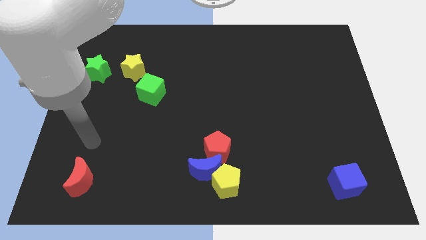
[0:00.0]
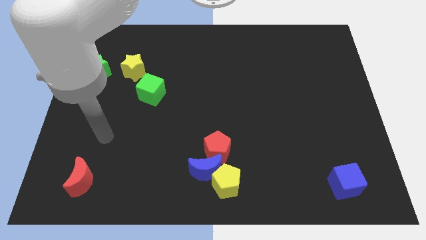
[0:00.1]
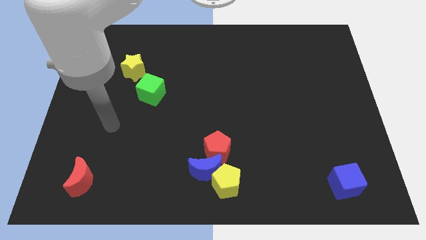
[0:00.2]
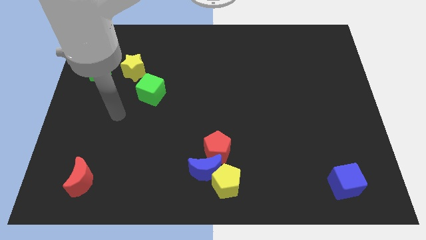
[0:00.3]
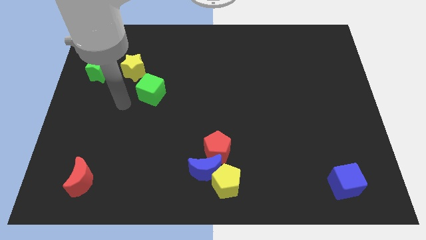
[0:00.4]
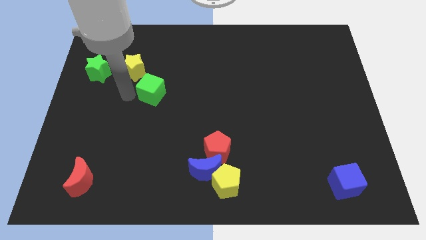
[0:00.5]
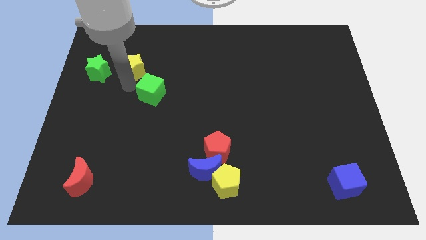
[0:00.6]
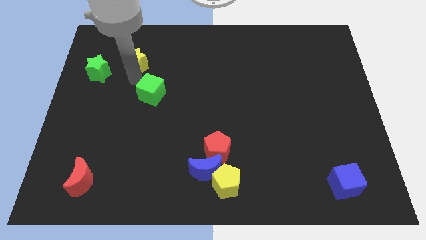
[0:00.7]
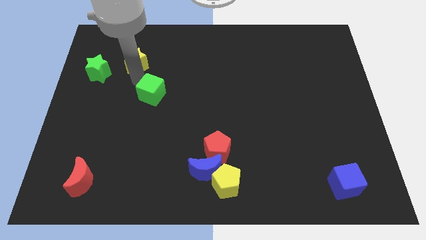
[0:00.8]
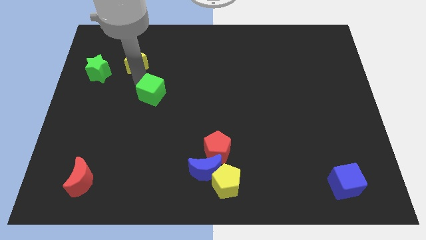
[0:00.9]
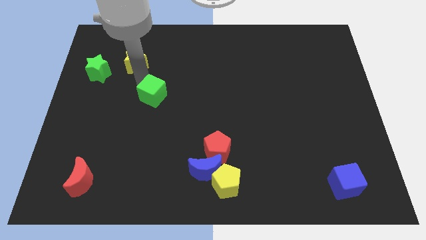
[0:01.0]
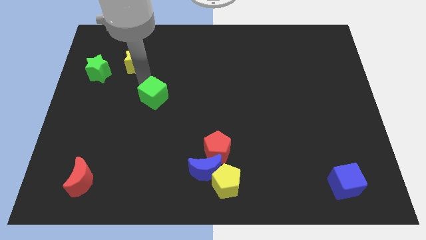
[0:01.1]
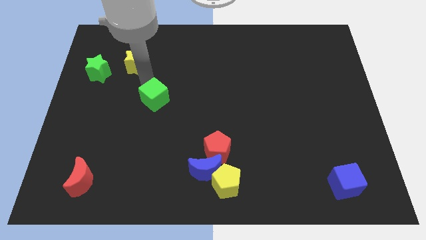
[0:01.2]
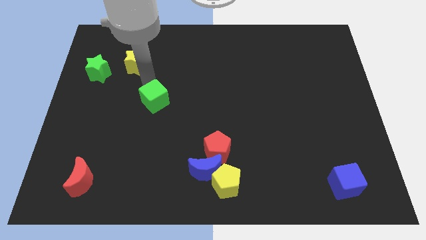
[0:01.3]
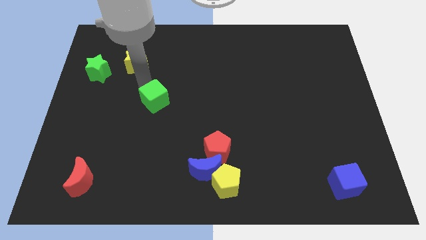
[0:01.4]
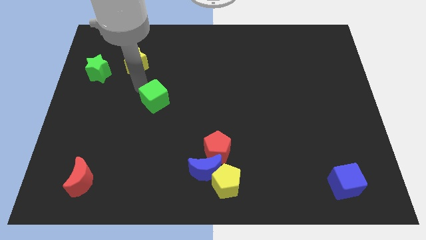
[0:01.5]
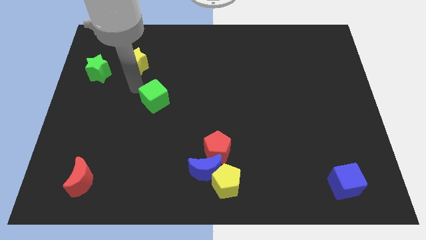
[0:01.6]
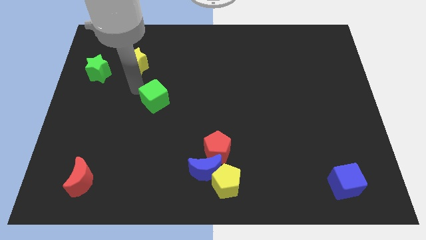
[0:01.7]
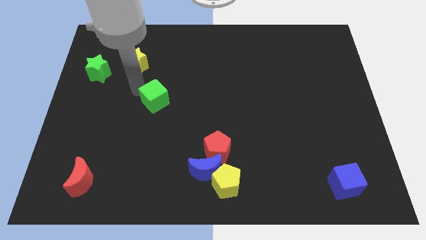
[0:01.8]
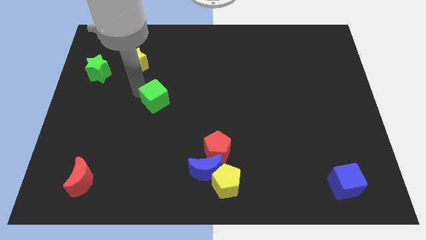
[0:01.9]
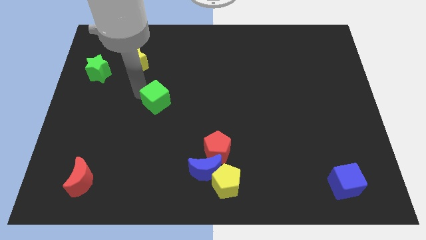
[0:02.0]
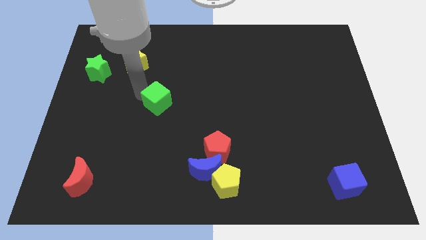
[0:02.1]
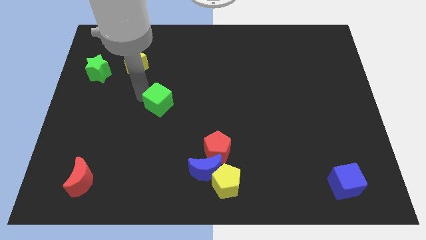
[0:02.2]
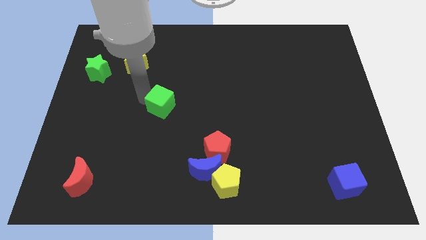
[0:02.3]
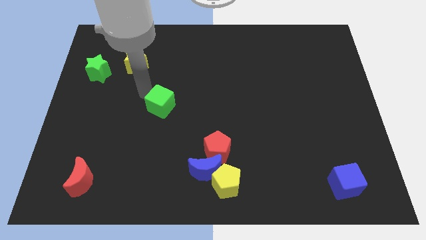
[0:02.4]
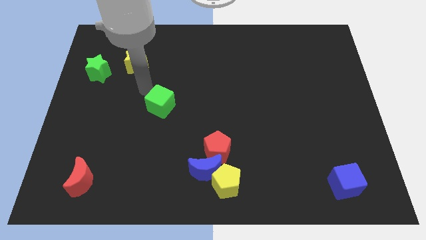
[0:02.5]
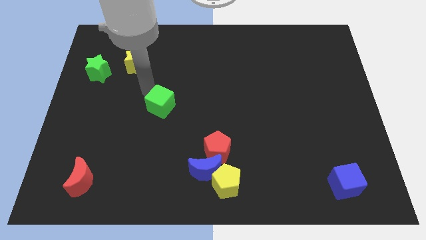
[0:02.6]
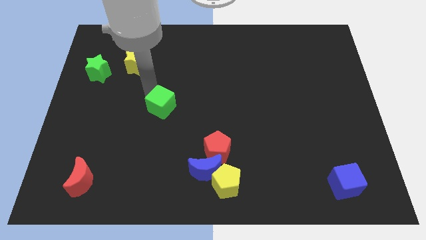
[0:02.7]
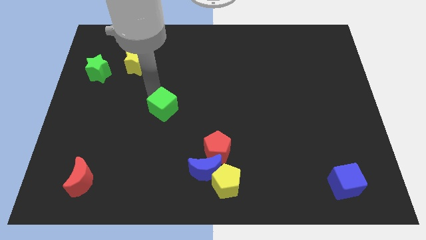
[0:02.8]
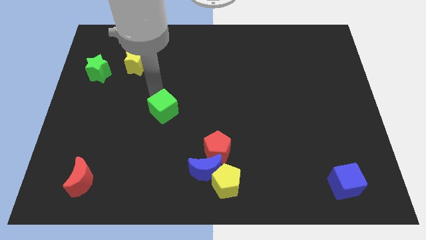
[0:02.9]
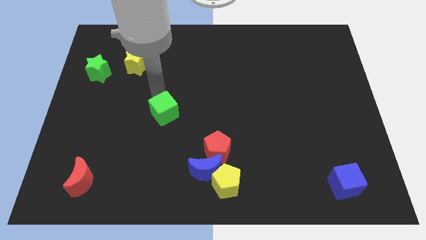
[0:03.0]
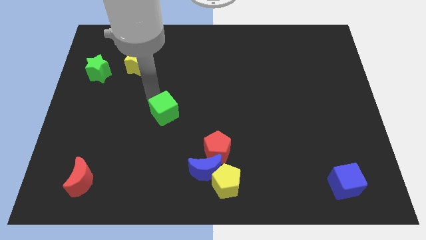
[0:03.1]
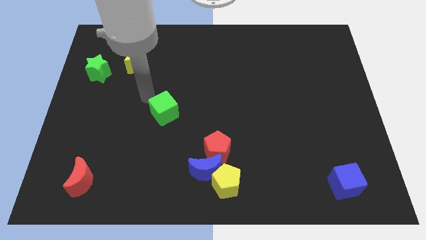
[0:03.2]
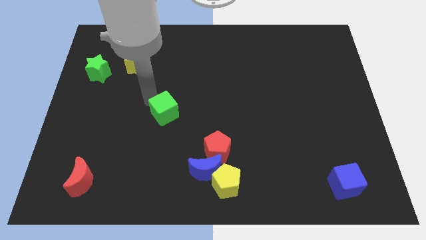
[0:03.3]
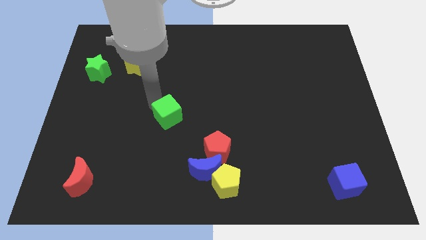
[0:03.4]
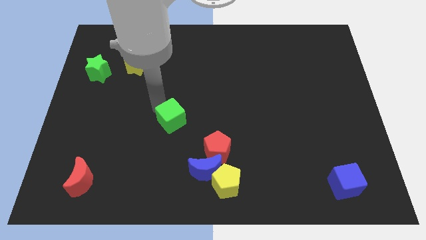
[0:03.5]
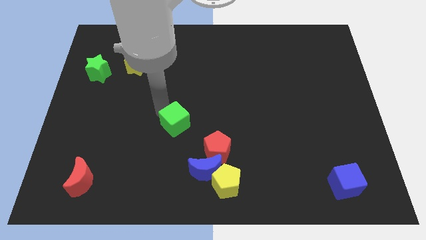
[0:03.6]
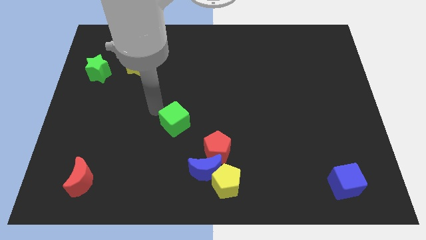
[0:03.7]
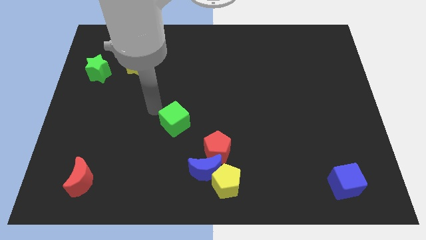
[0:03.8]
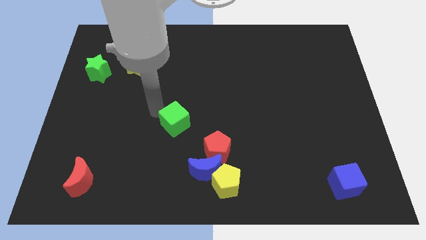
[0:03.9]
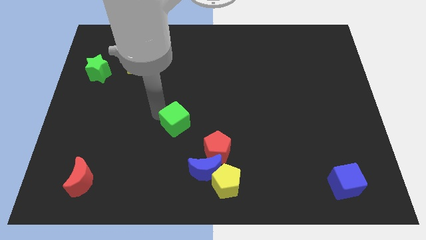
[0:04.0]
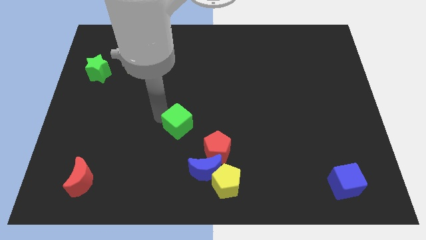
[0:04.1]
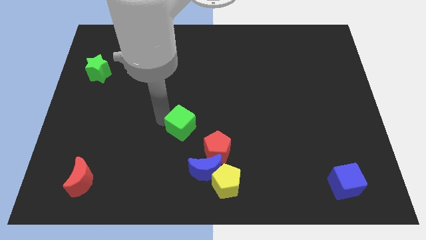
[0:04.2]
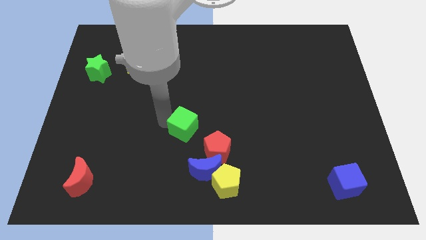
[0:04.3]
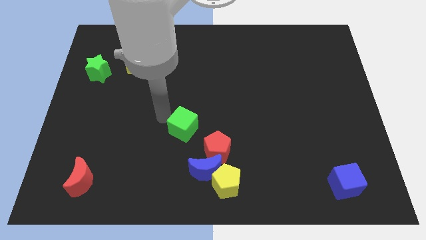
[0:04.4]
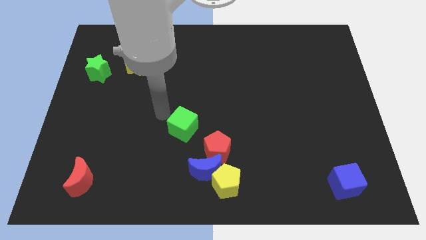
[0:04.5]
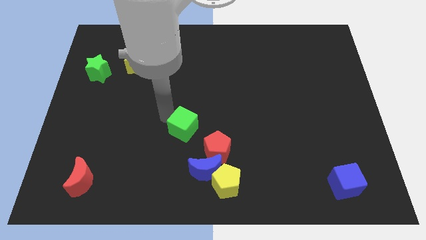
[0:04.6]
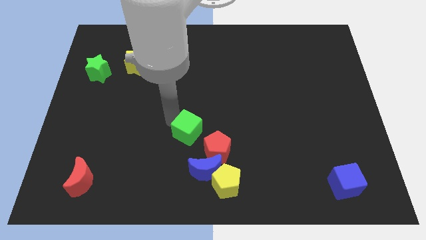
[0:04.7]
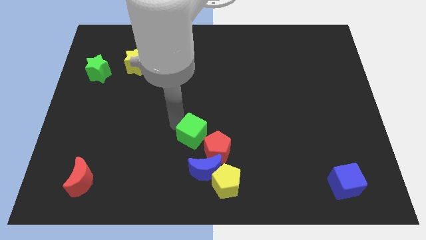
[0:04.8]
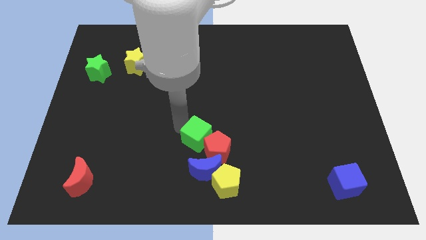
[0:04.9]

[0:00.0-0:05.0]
slide the green cube close to the red pentagon

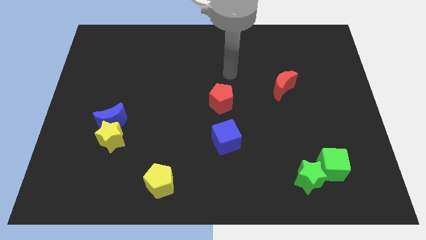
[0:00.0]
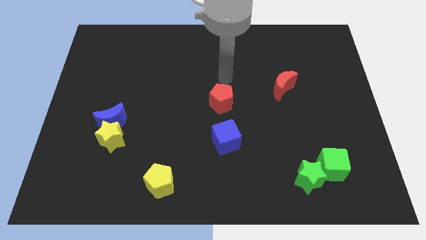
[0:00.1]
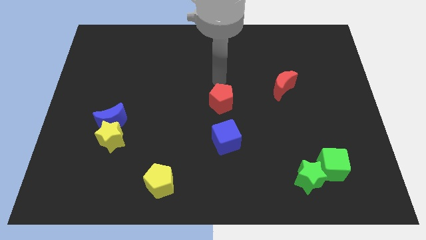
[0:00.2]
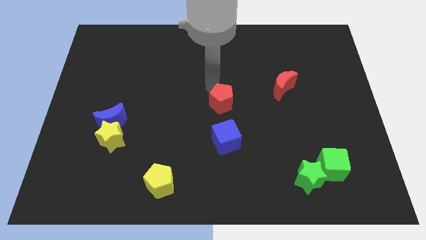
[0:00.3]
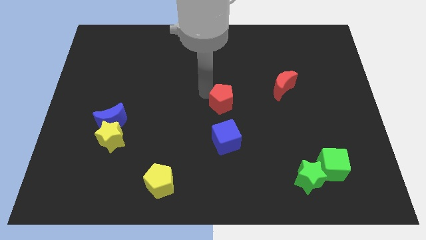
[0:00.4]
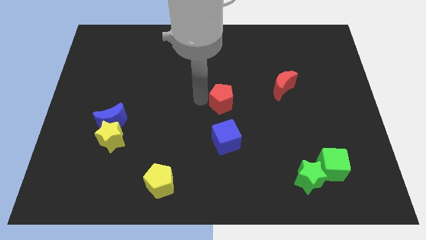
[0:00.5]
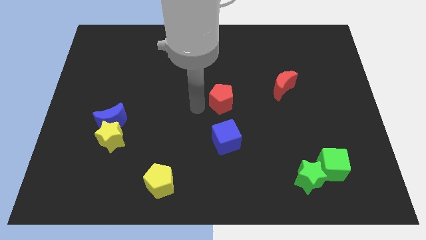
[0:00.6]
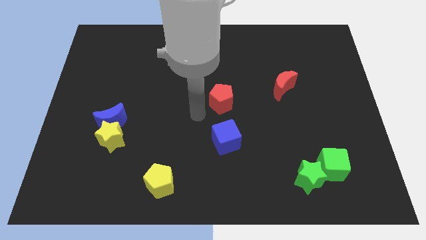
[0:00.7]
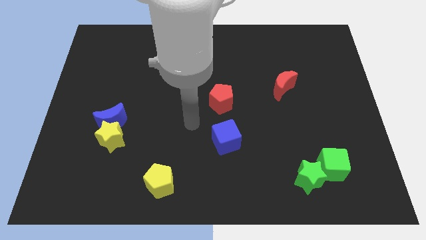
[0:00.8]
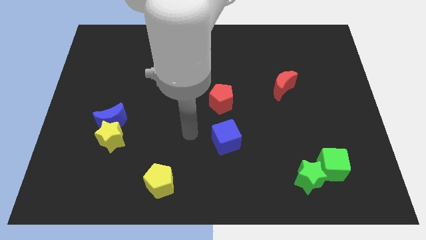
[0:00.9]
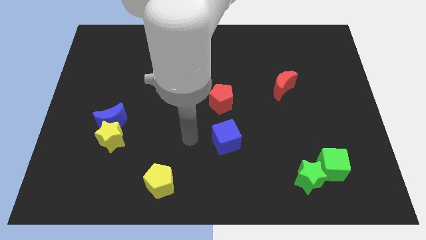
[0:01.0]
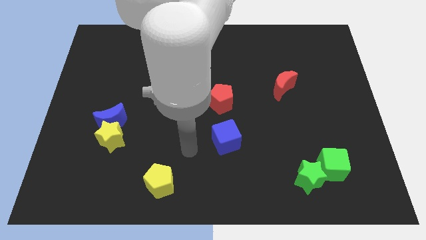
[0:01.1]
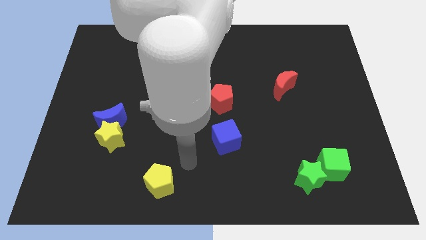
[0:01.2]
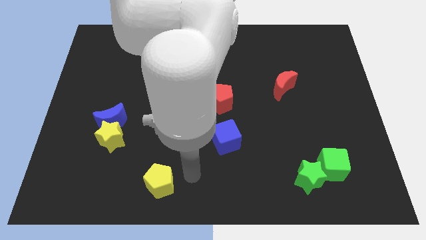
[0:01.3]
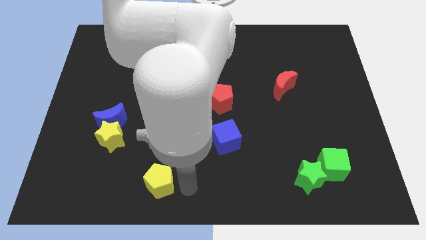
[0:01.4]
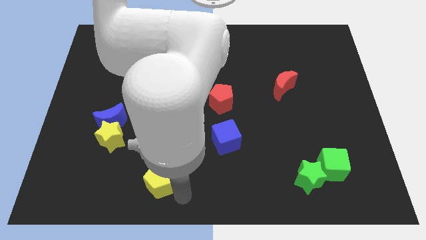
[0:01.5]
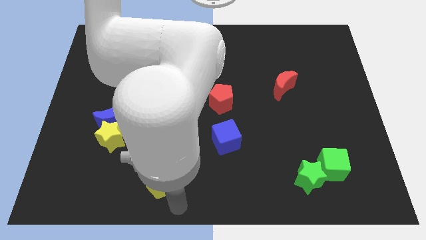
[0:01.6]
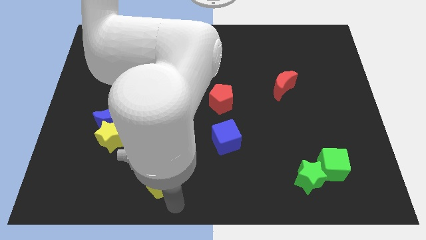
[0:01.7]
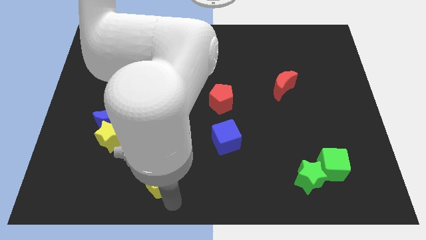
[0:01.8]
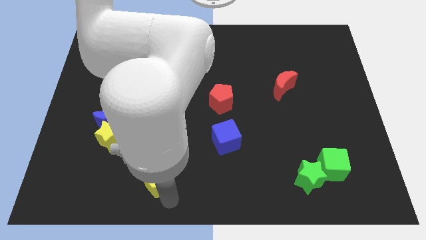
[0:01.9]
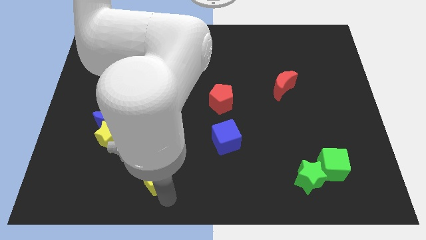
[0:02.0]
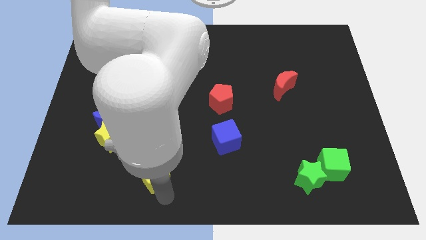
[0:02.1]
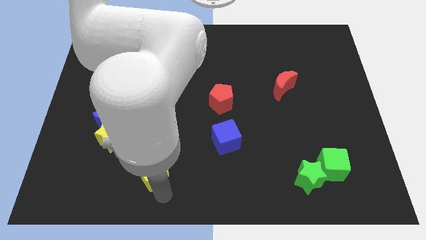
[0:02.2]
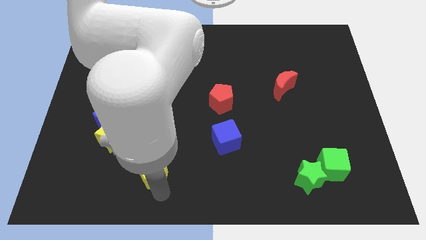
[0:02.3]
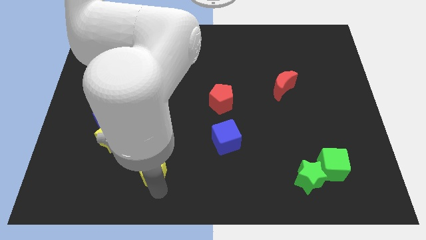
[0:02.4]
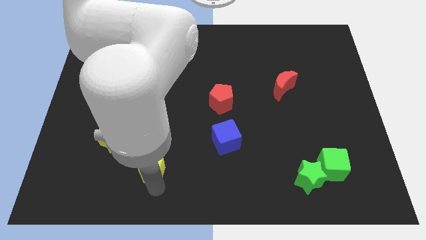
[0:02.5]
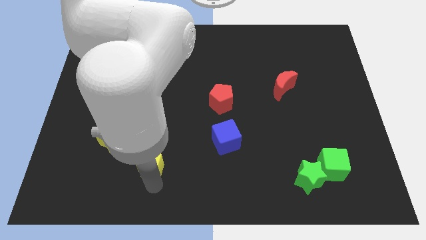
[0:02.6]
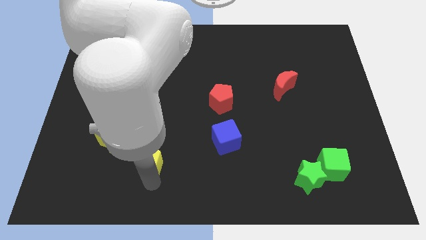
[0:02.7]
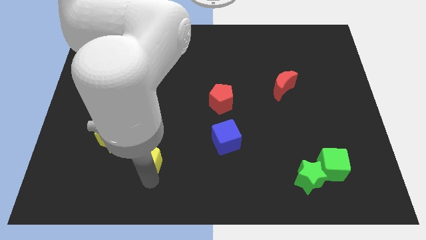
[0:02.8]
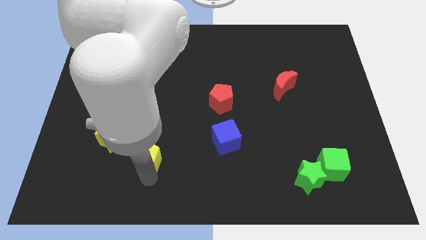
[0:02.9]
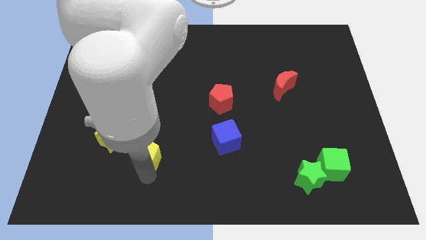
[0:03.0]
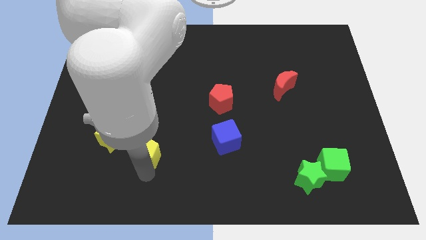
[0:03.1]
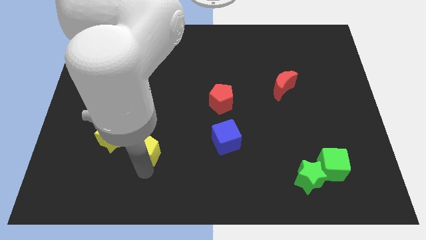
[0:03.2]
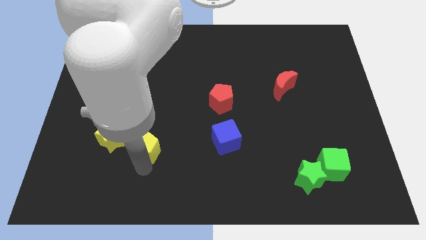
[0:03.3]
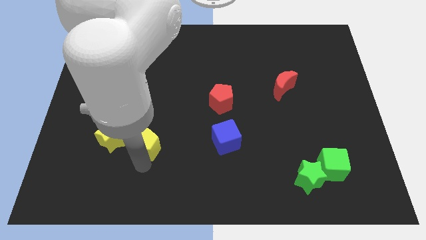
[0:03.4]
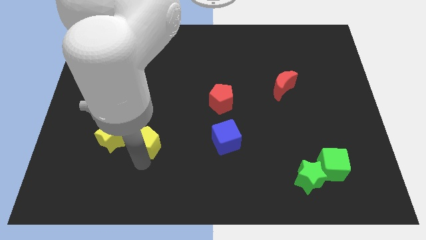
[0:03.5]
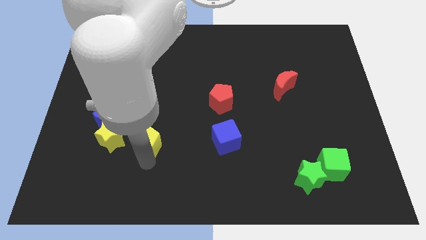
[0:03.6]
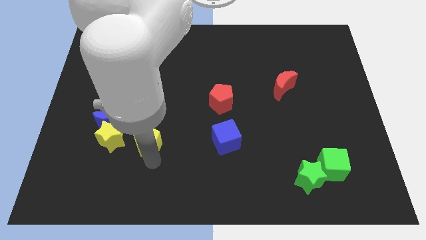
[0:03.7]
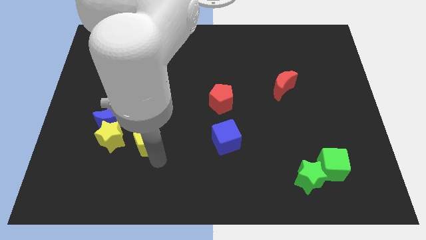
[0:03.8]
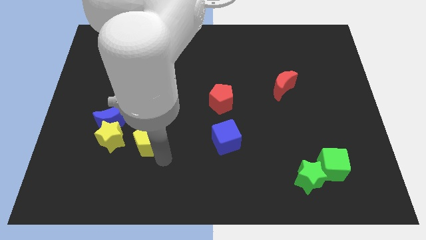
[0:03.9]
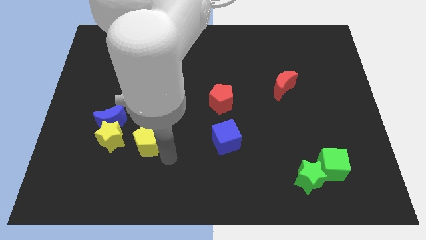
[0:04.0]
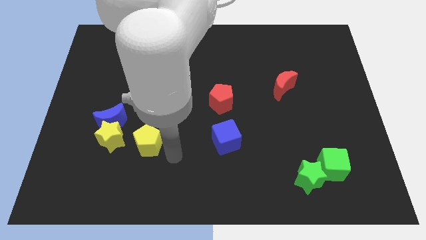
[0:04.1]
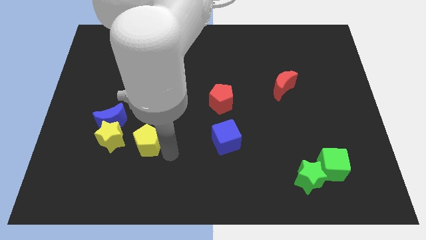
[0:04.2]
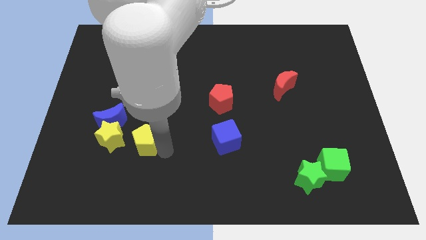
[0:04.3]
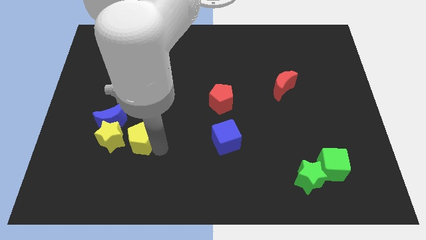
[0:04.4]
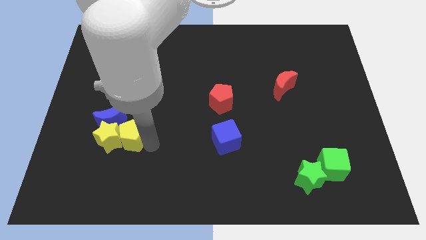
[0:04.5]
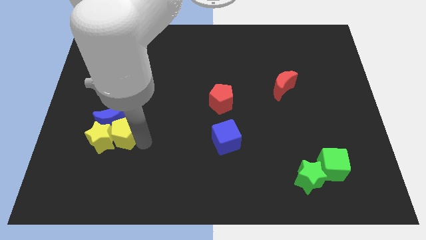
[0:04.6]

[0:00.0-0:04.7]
put the yellow pentagon close to the blue moon
